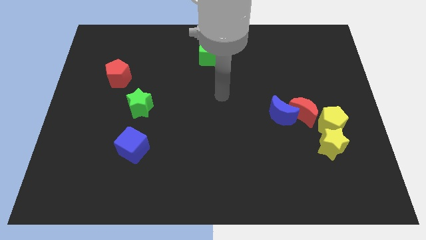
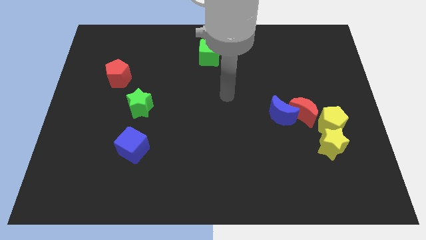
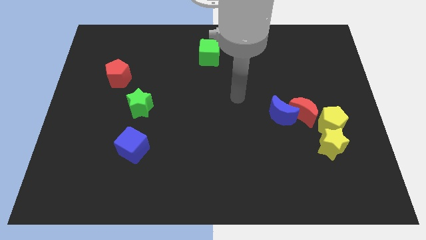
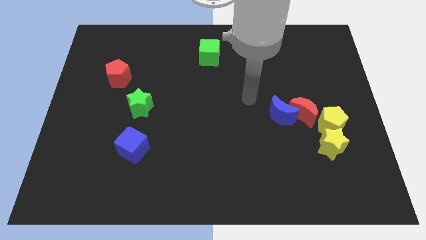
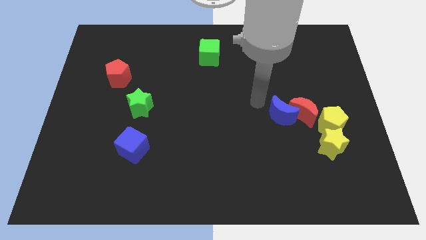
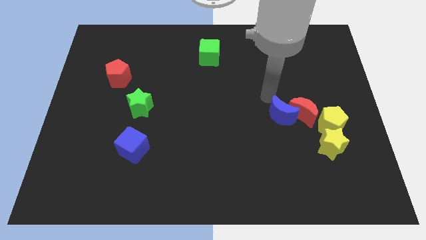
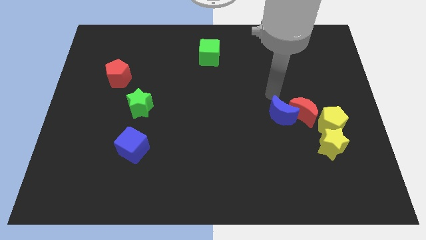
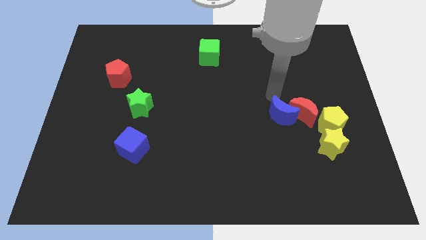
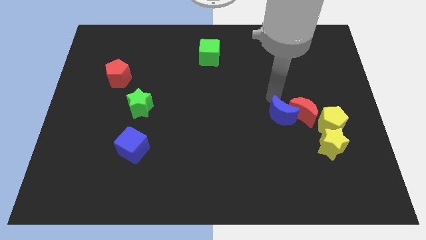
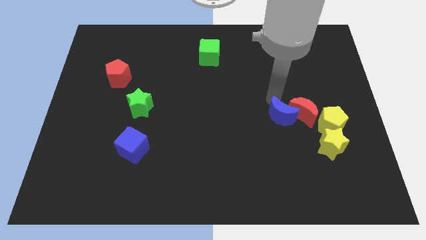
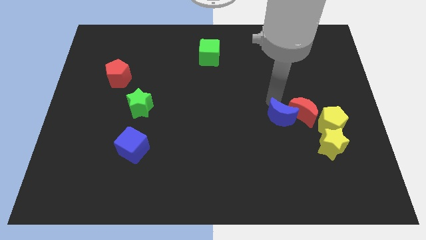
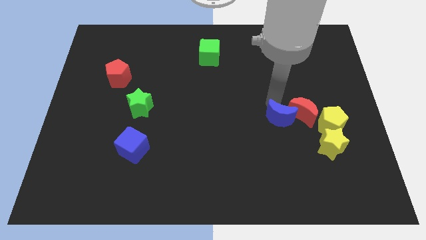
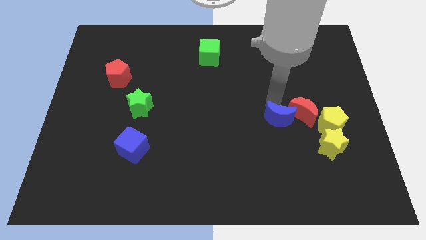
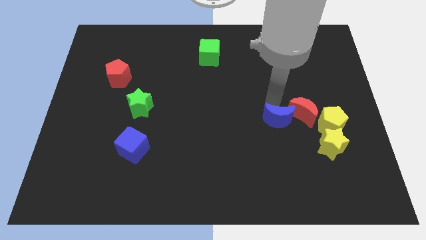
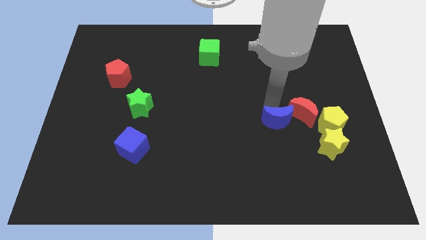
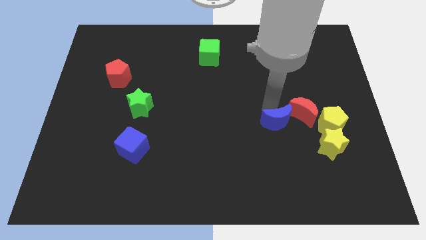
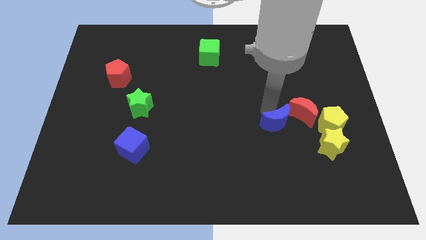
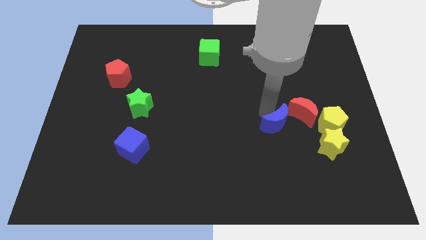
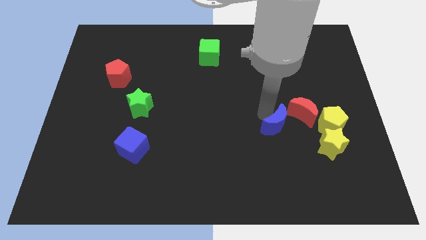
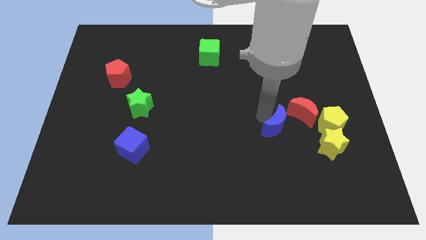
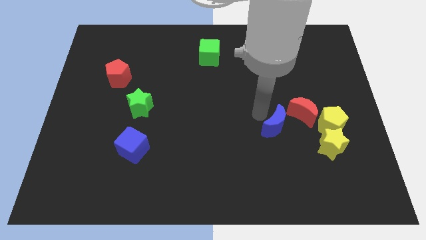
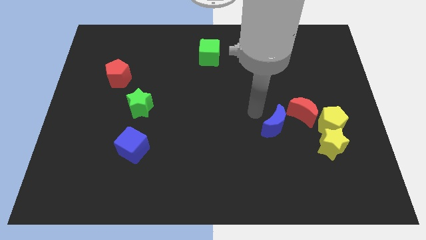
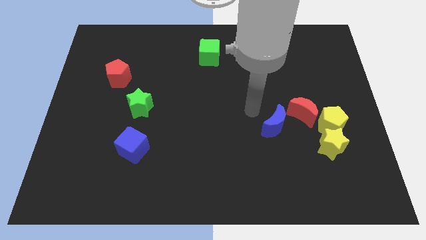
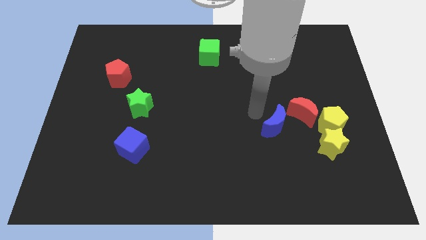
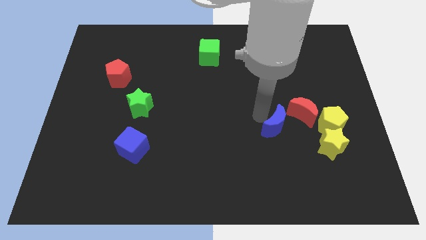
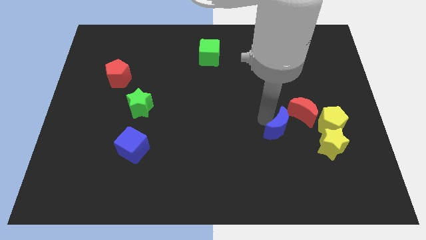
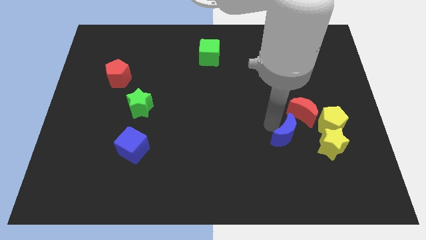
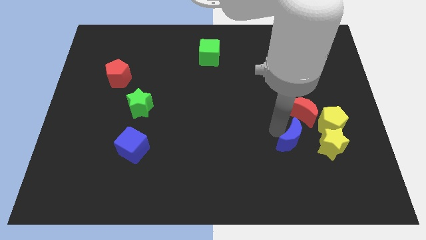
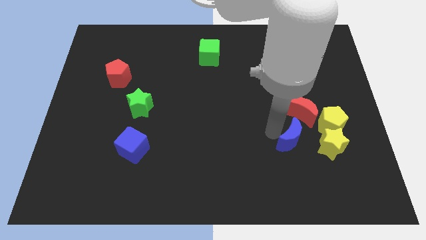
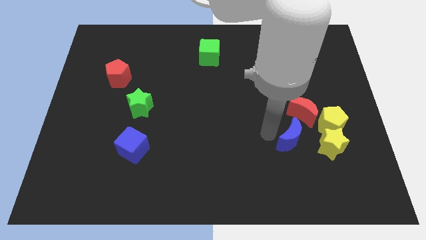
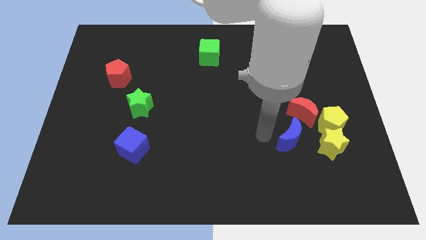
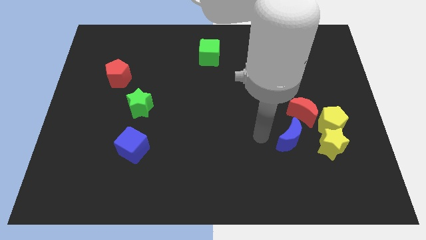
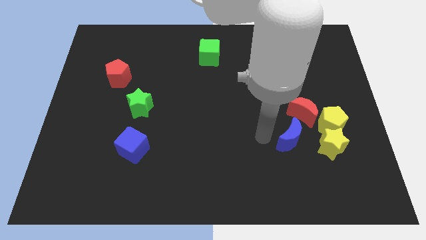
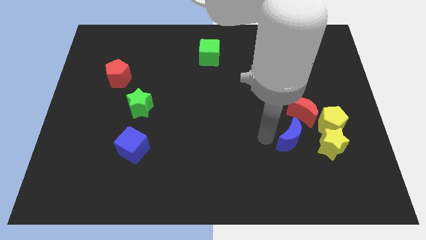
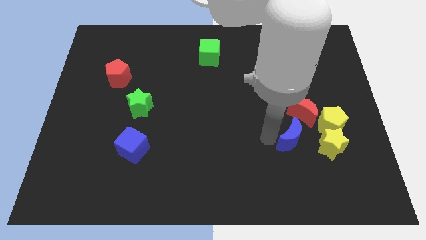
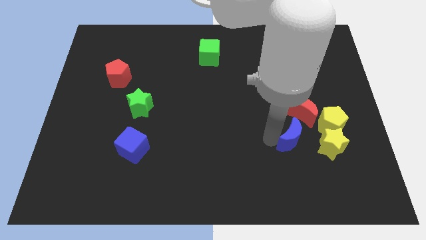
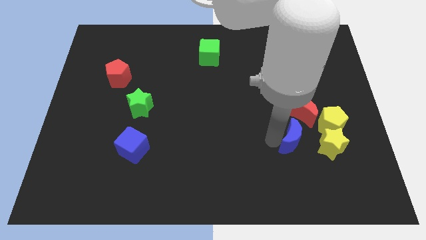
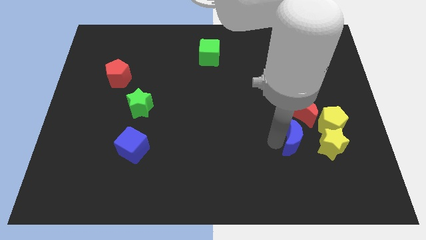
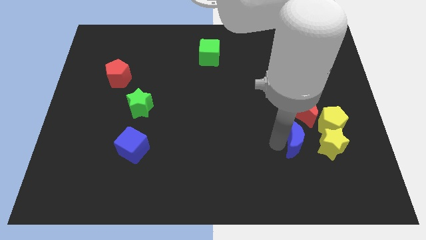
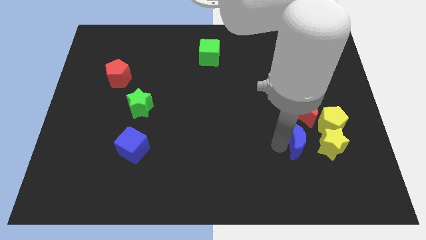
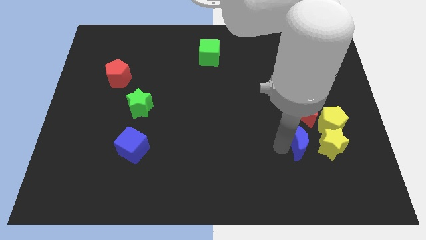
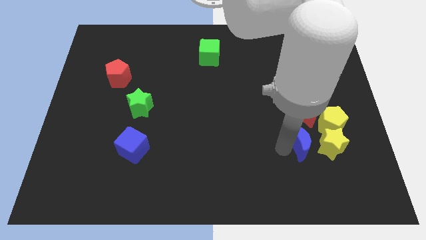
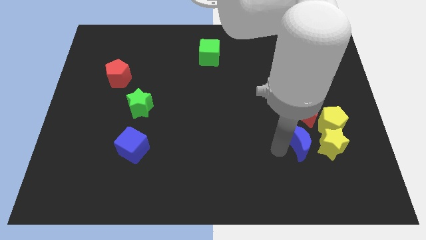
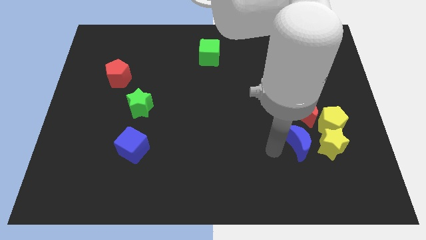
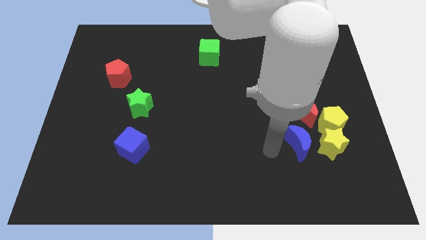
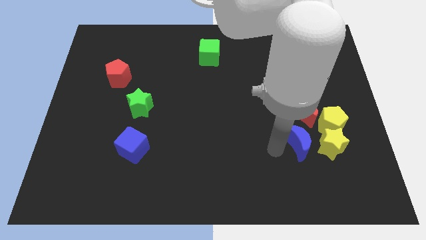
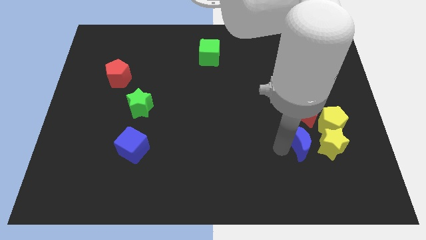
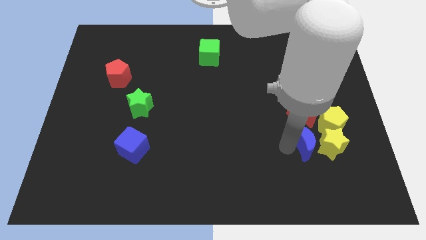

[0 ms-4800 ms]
put the blue moon close to the yellow star

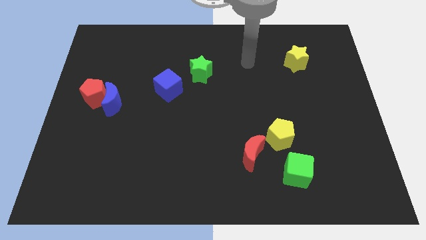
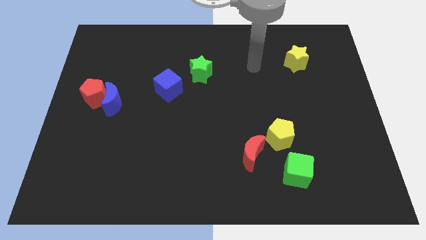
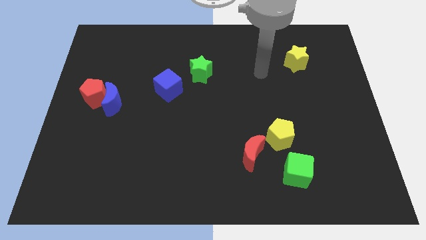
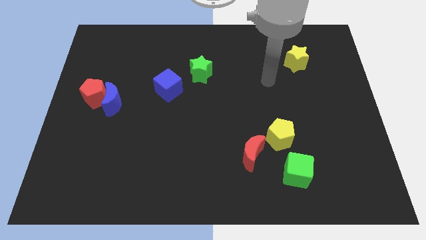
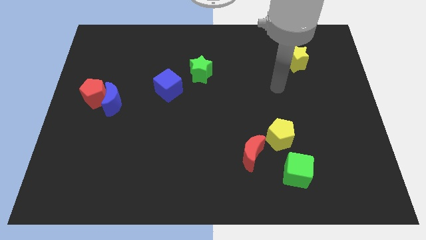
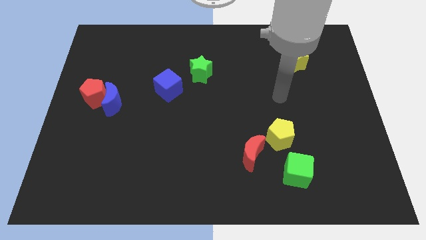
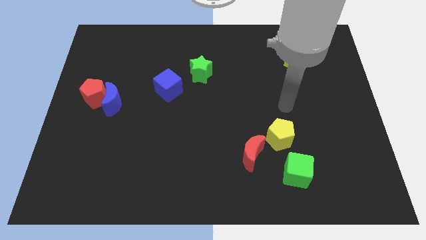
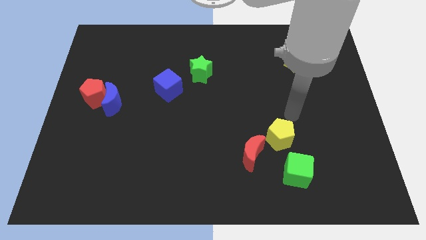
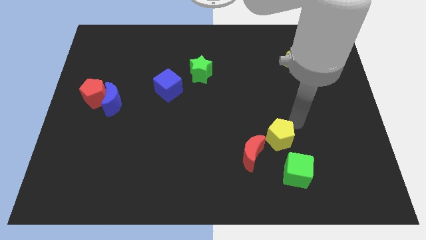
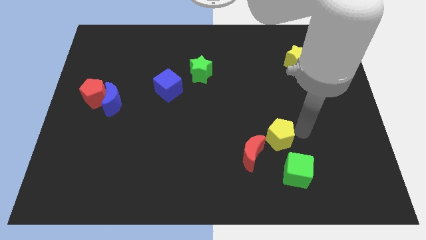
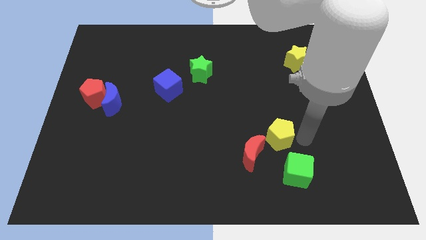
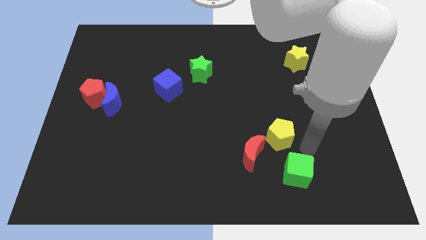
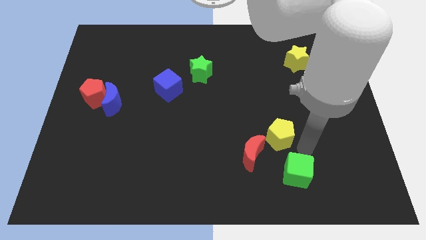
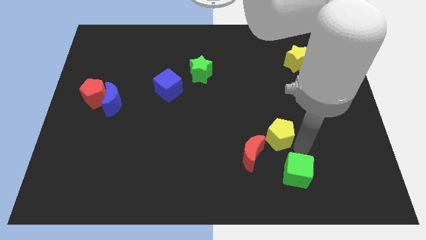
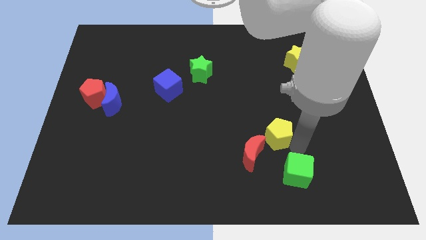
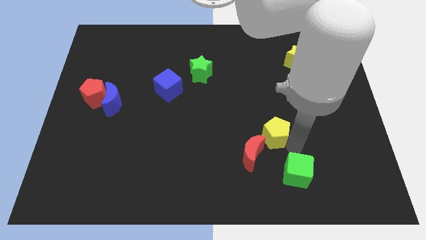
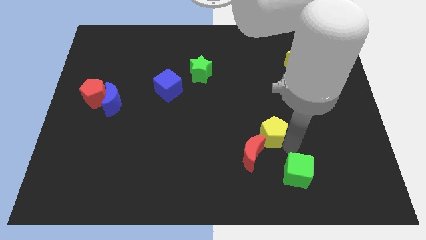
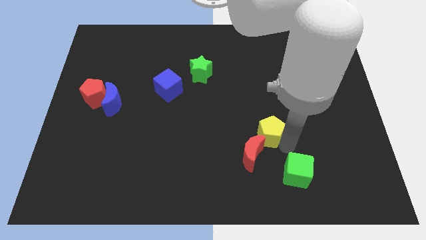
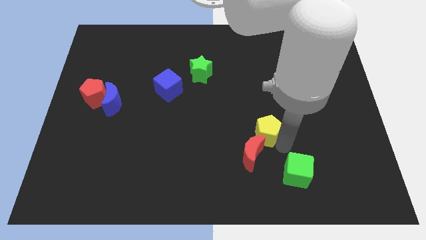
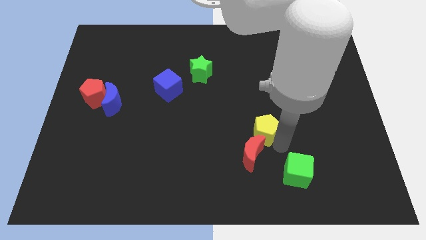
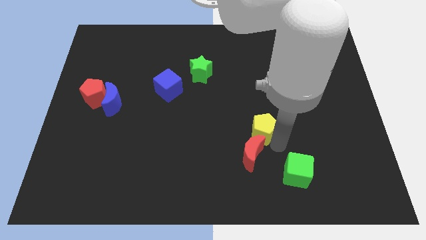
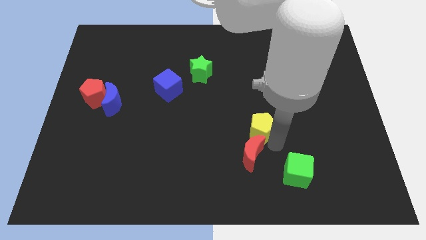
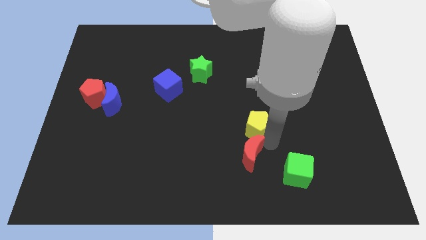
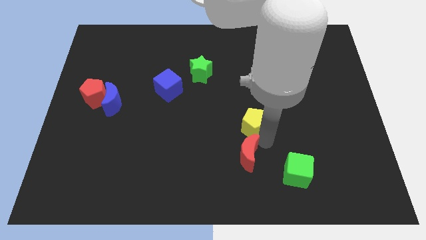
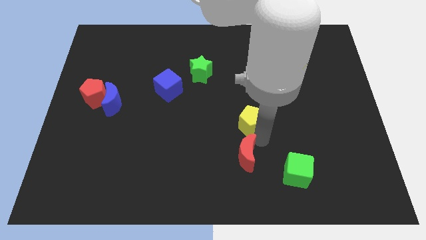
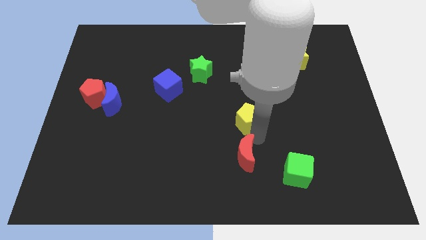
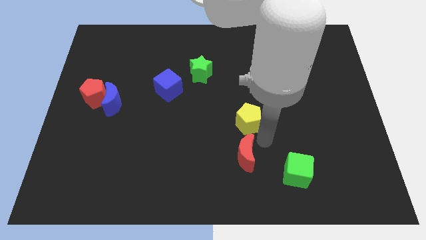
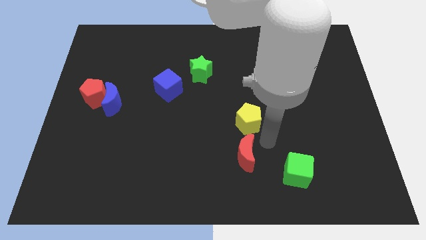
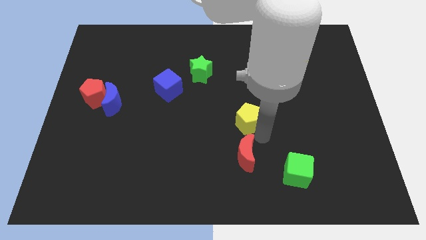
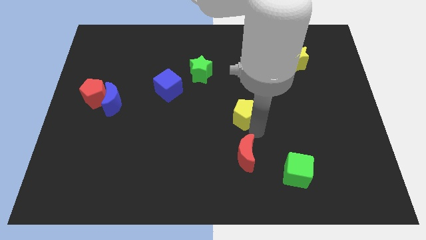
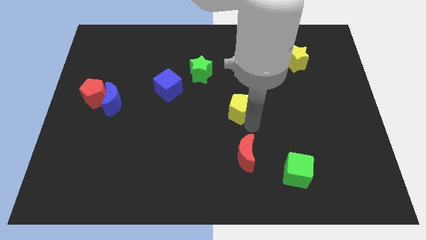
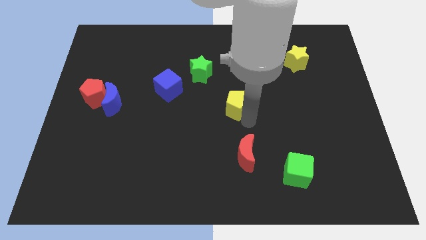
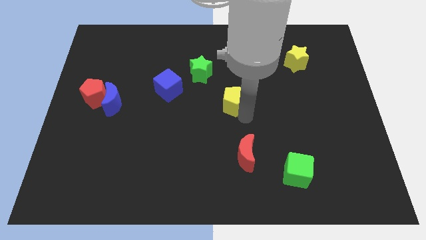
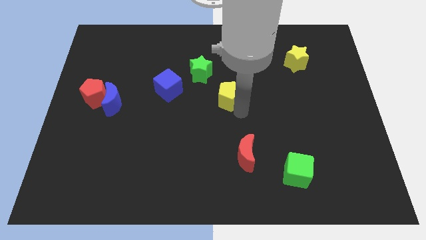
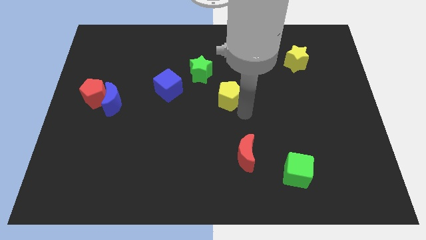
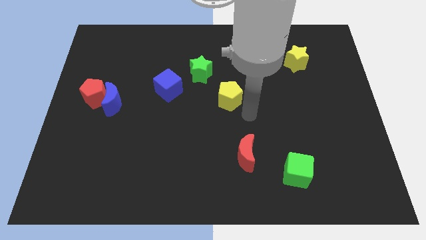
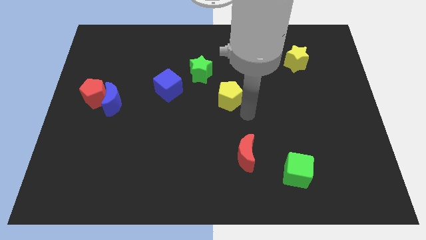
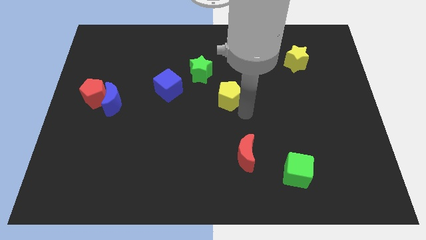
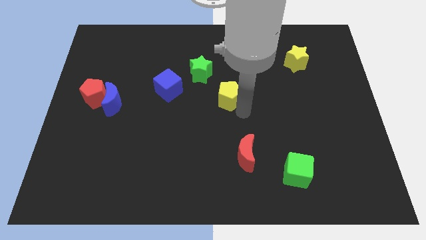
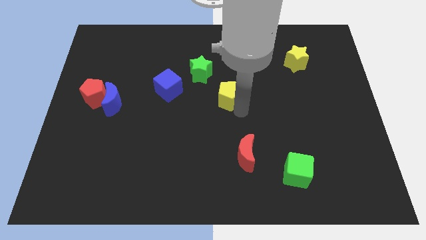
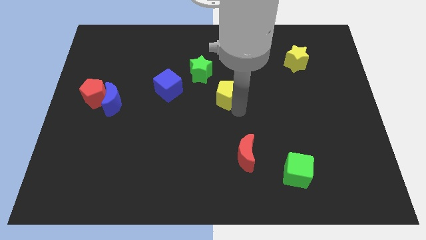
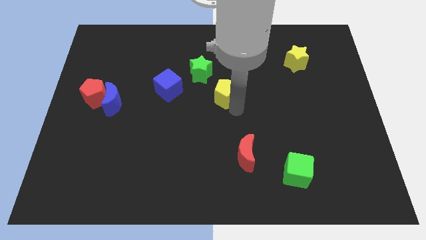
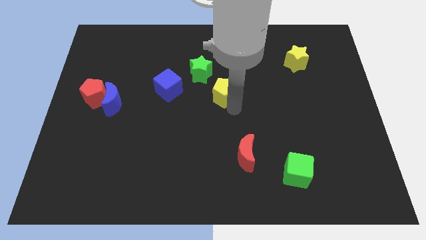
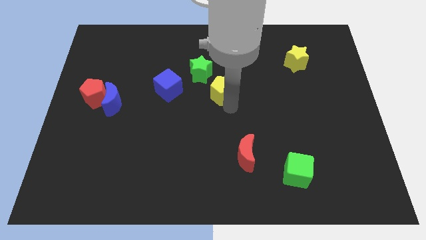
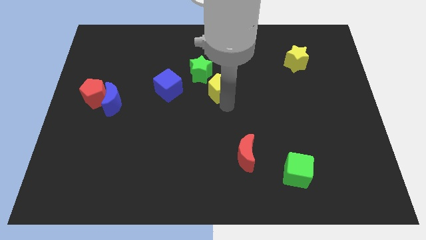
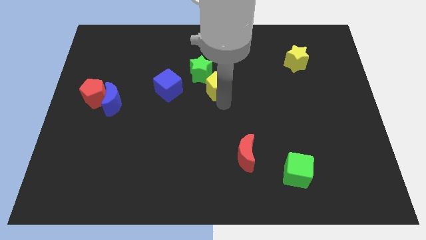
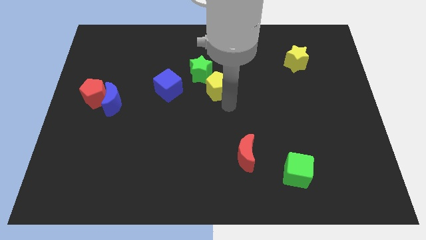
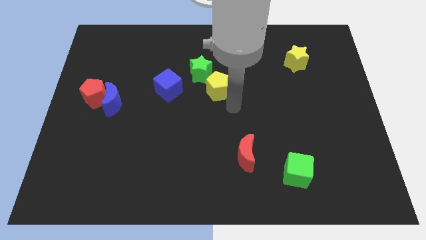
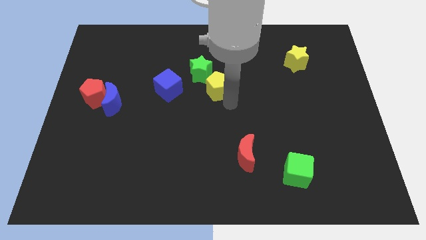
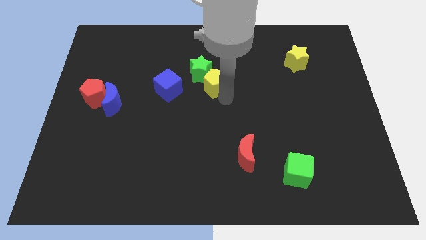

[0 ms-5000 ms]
put the yellow pentagon close to the green star
